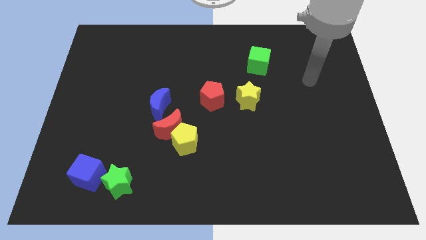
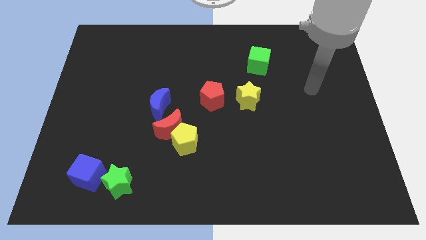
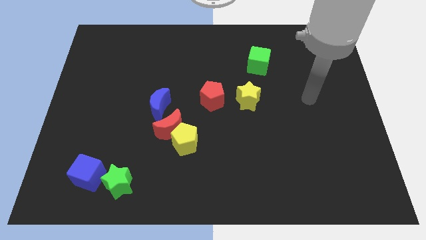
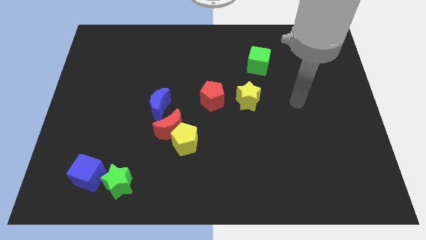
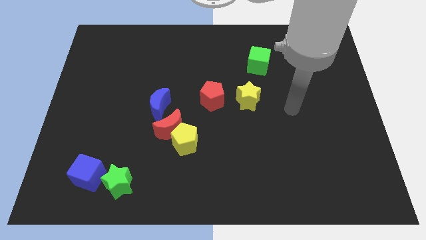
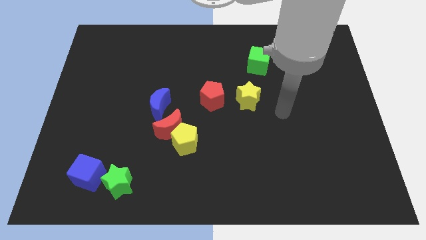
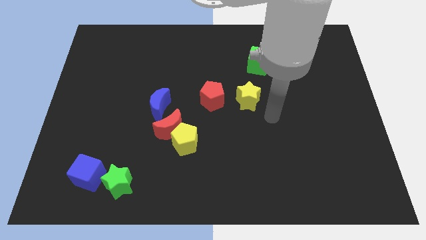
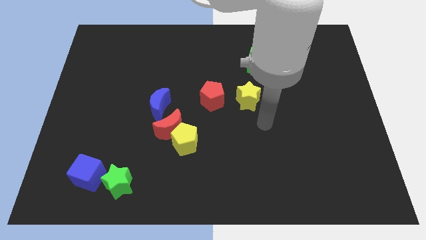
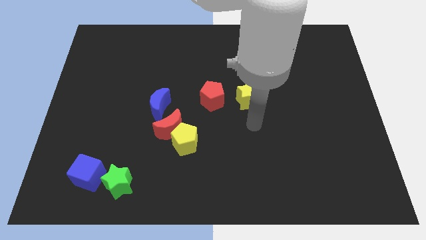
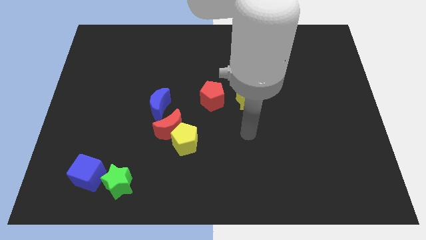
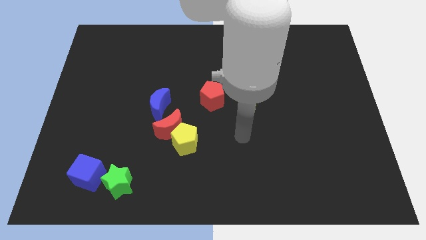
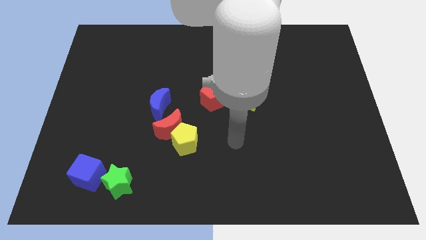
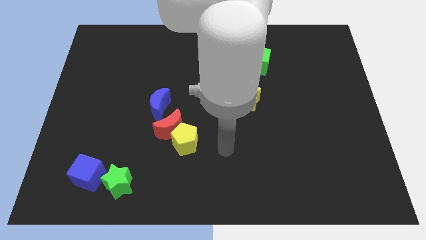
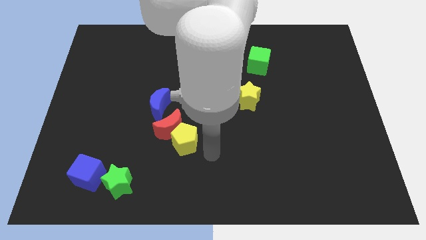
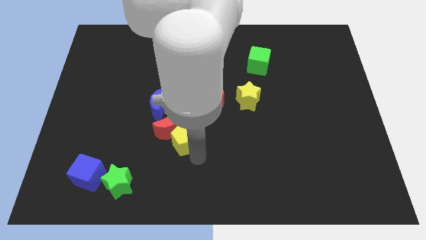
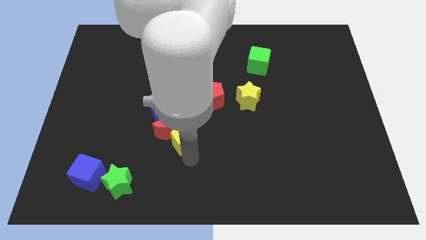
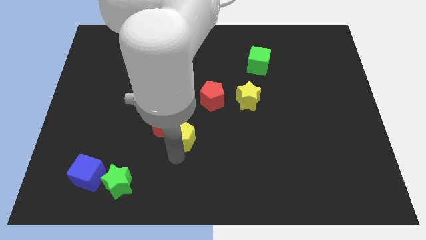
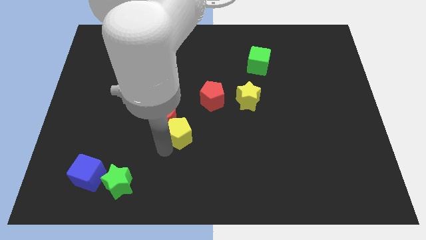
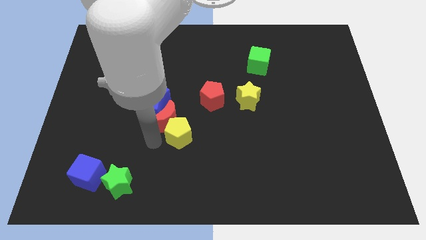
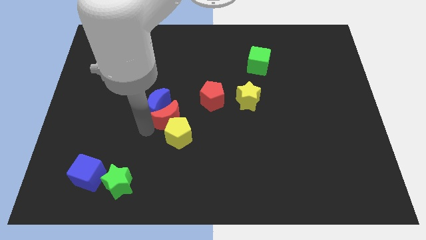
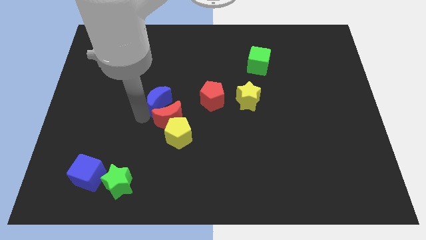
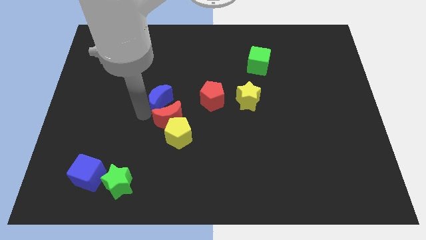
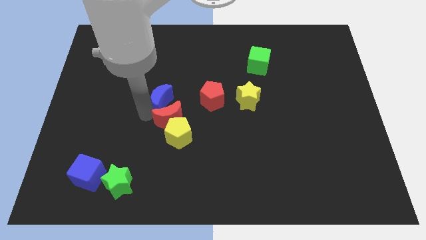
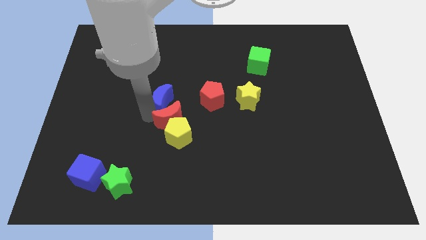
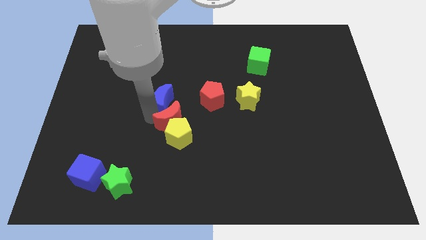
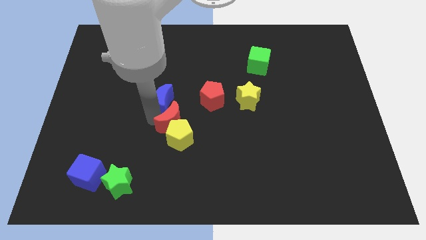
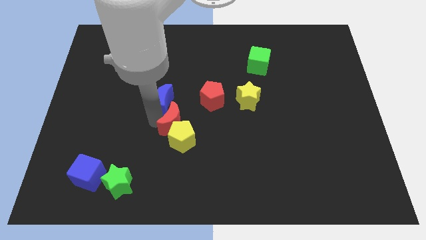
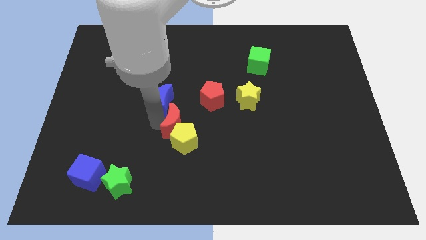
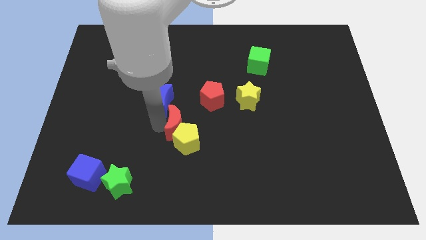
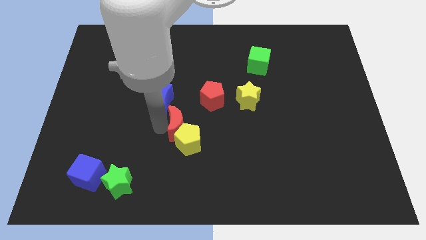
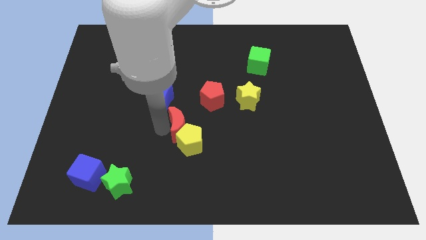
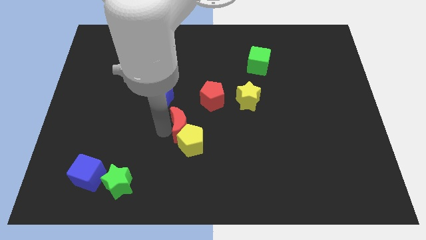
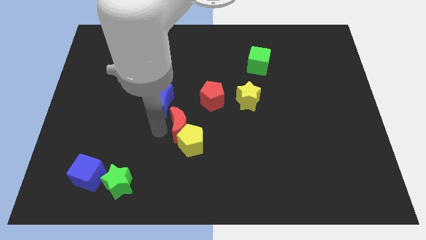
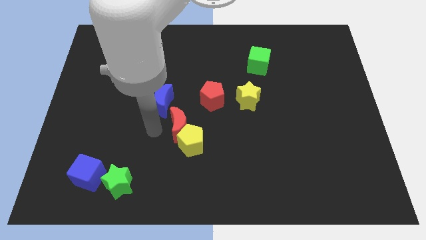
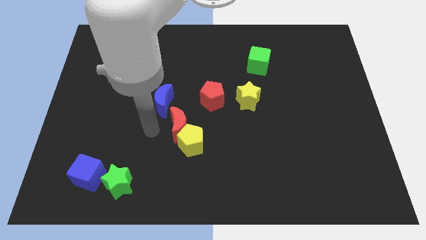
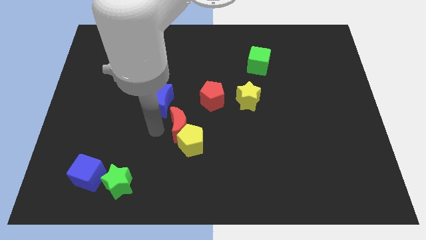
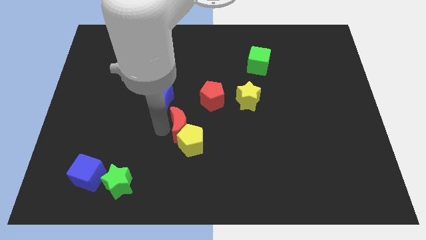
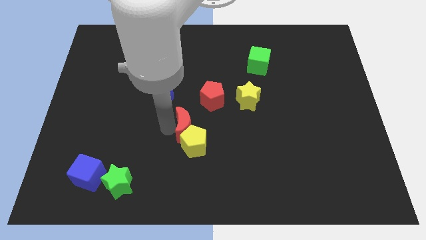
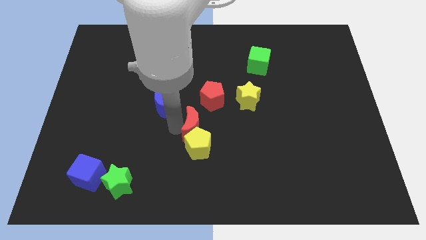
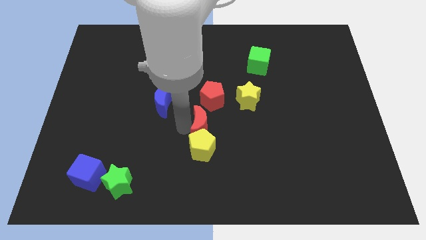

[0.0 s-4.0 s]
move the red moon slightly to the right

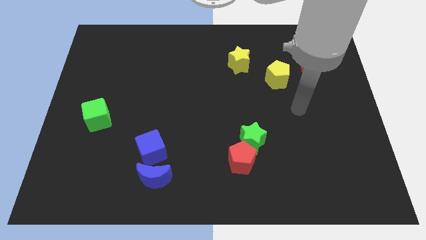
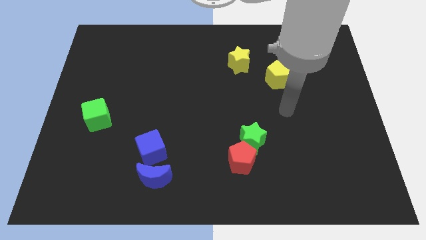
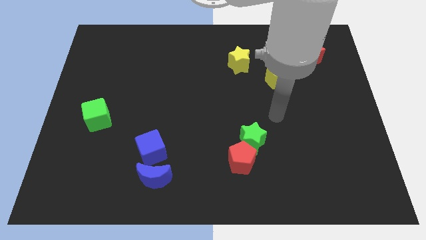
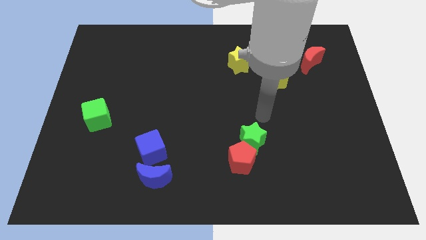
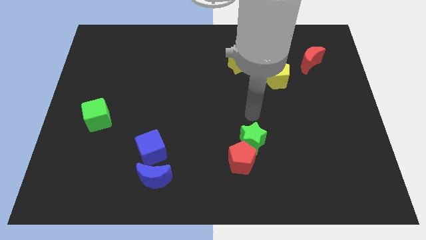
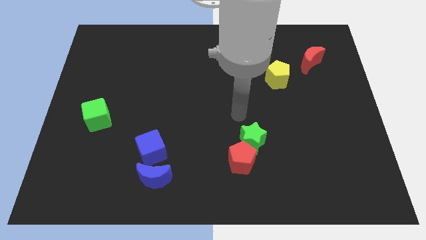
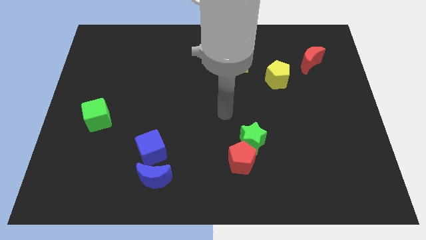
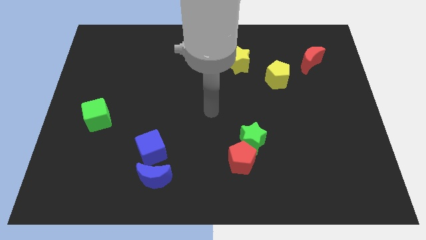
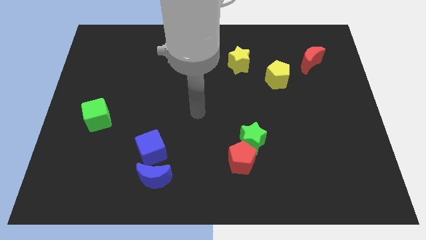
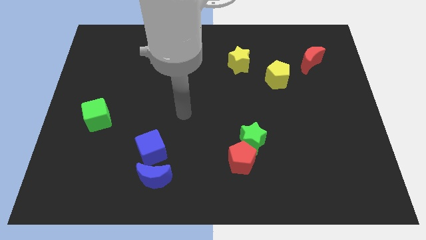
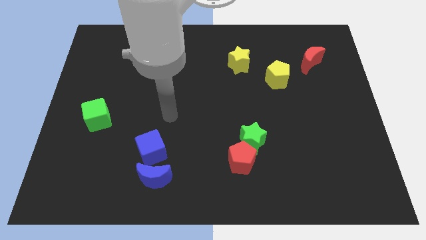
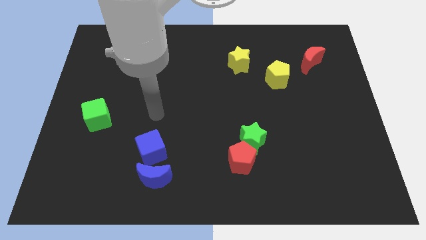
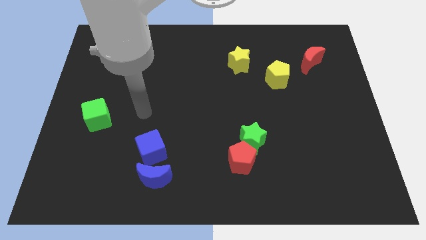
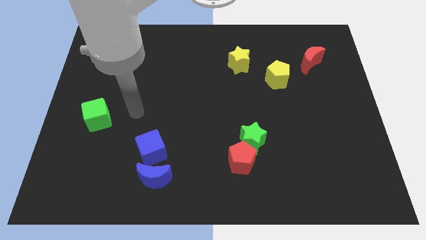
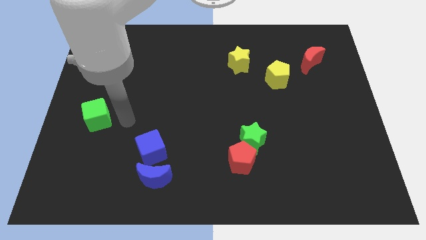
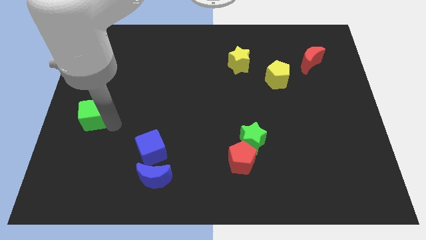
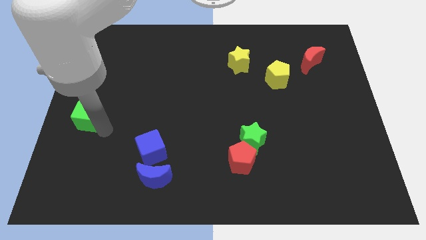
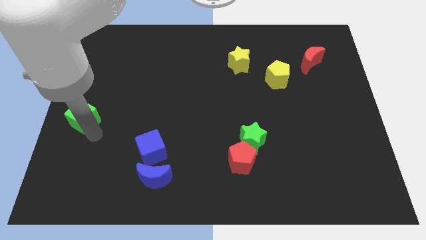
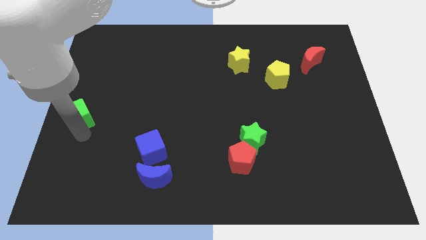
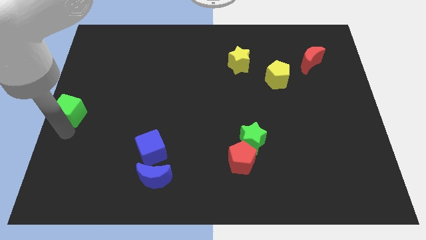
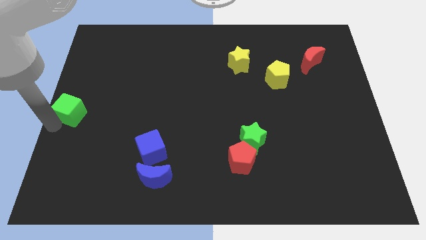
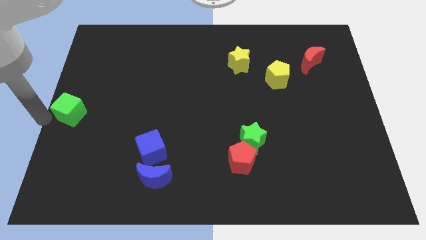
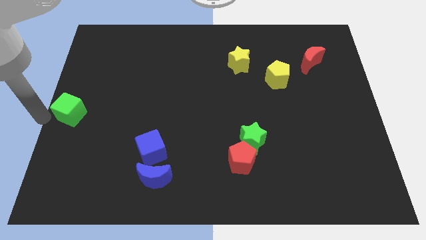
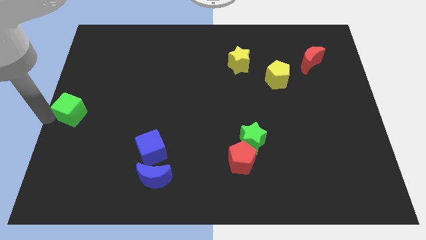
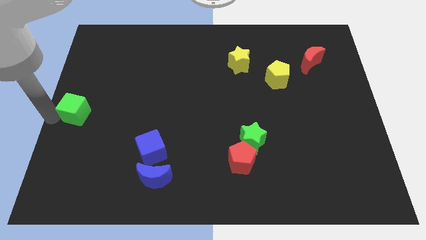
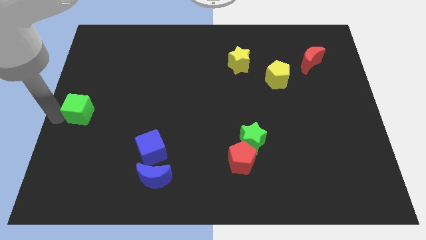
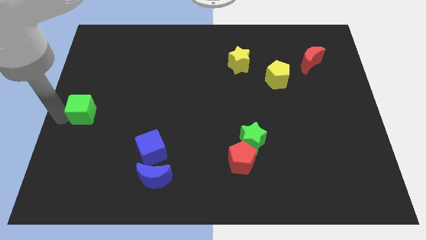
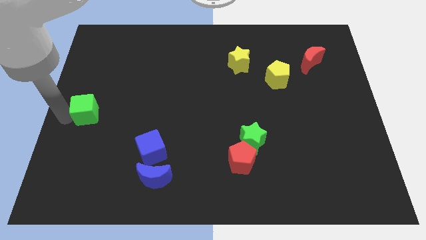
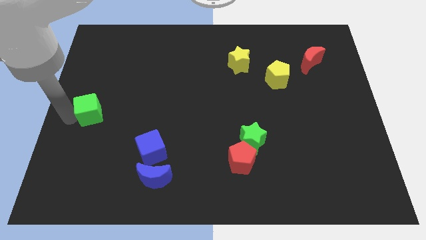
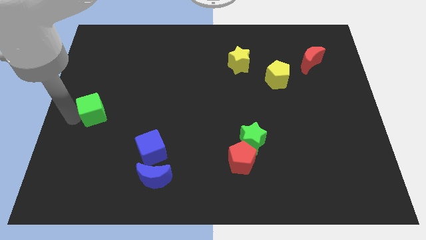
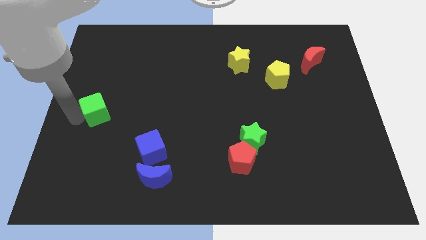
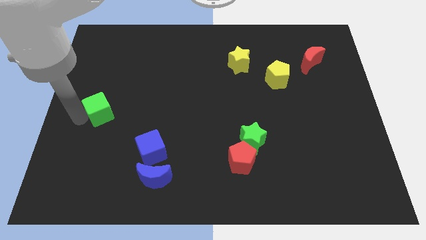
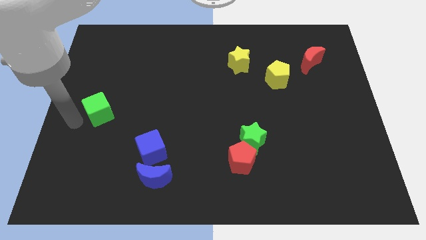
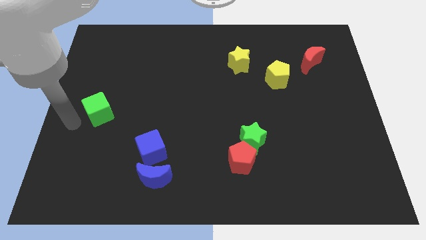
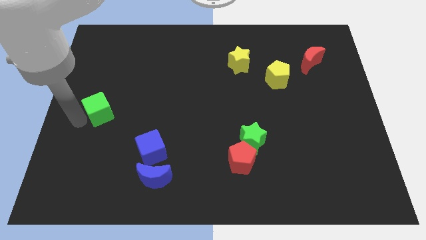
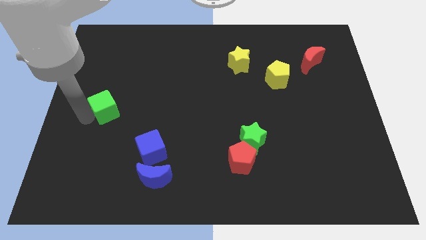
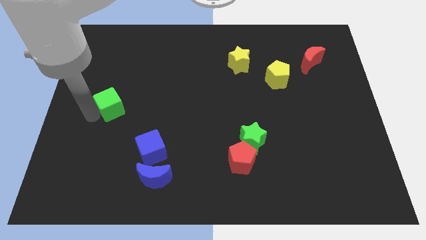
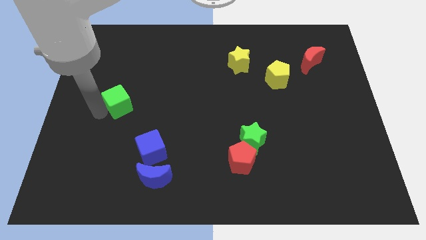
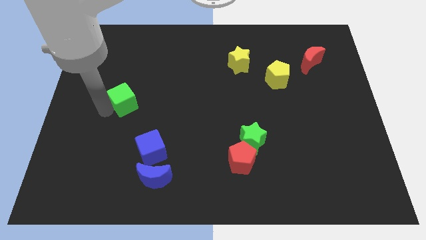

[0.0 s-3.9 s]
push the green cube slightly up and then to the right
